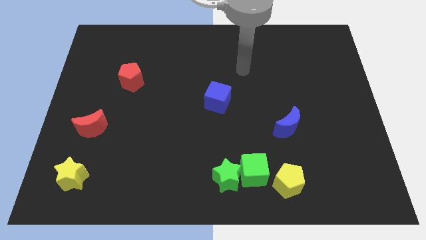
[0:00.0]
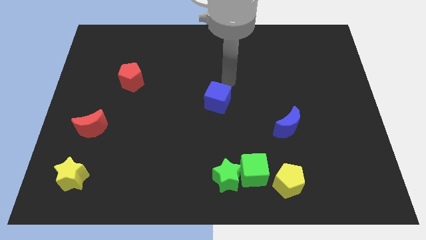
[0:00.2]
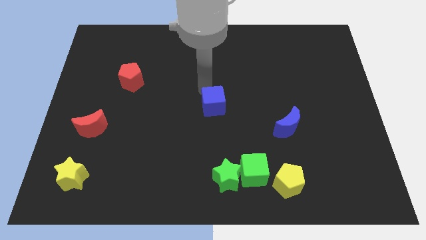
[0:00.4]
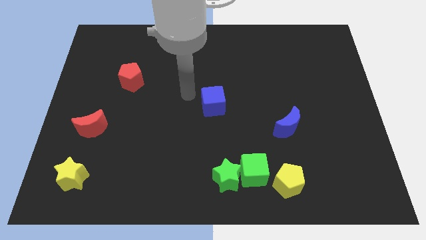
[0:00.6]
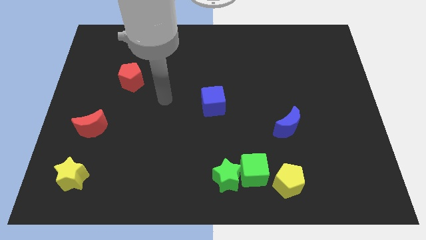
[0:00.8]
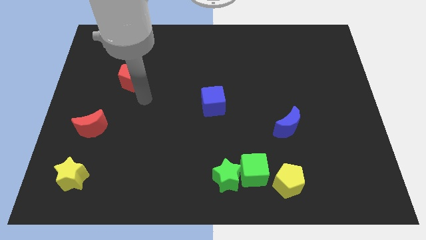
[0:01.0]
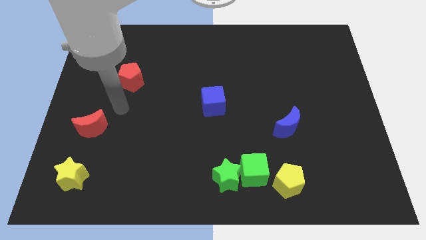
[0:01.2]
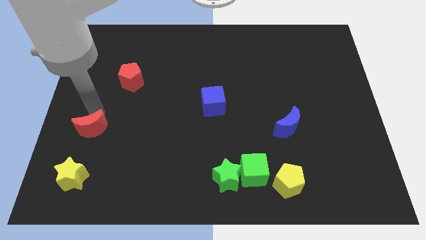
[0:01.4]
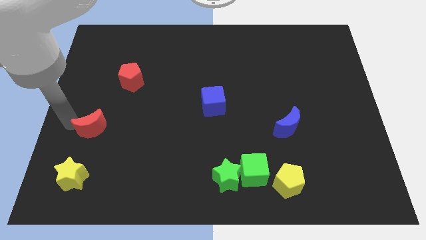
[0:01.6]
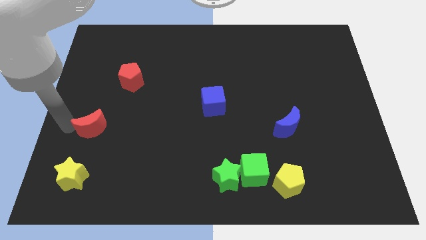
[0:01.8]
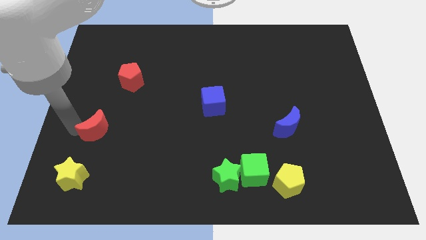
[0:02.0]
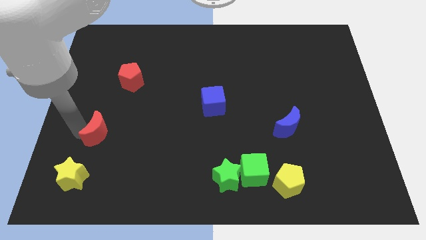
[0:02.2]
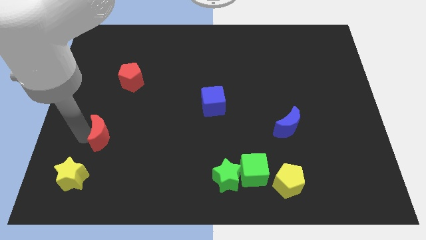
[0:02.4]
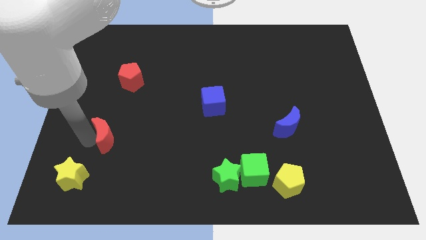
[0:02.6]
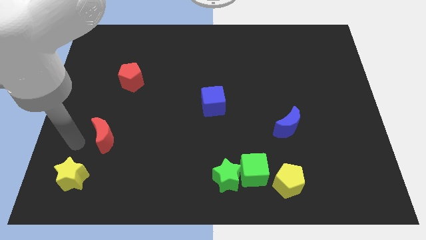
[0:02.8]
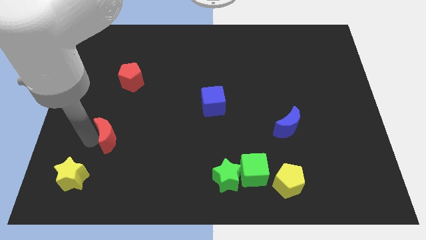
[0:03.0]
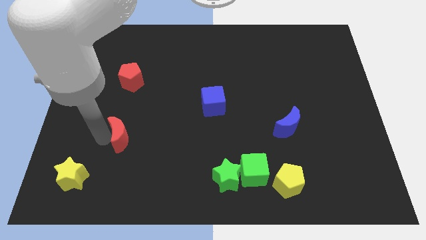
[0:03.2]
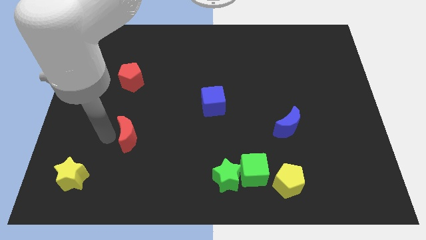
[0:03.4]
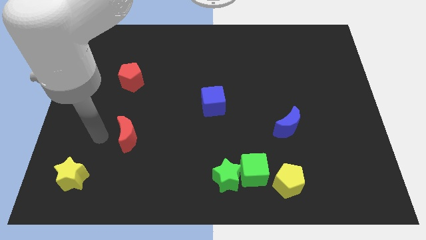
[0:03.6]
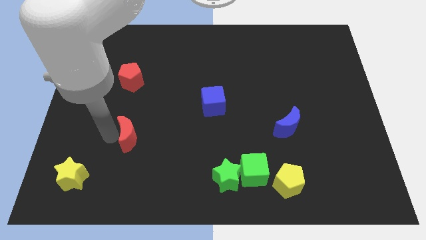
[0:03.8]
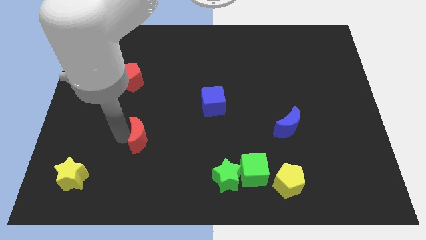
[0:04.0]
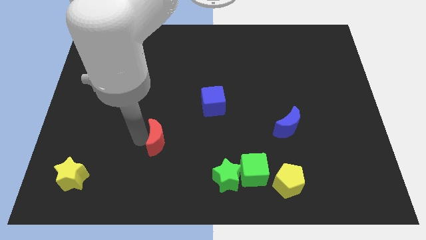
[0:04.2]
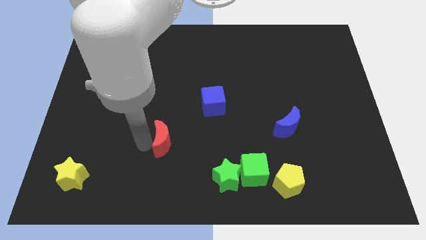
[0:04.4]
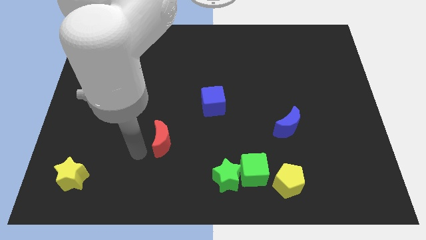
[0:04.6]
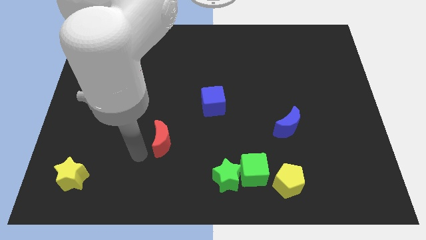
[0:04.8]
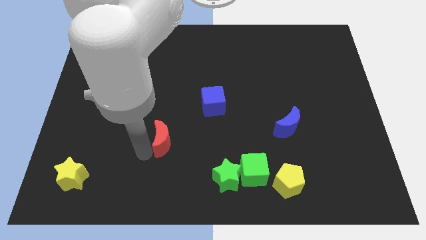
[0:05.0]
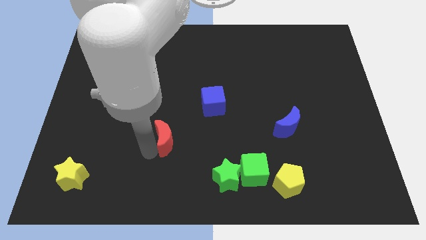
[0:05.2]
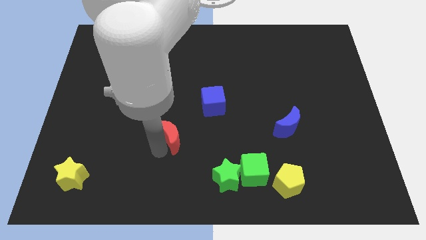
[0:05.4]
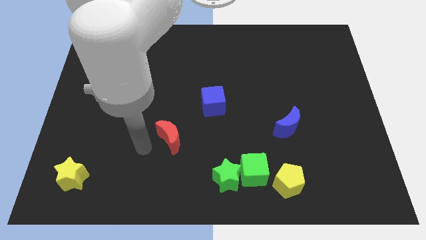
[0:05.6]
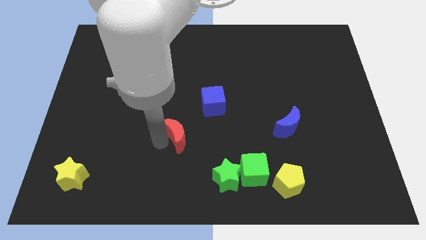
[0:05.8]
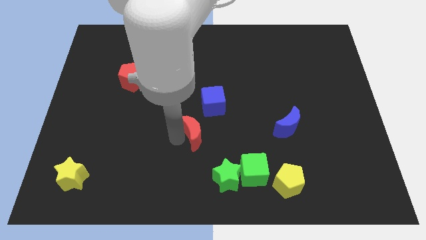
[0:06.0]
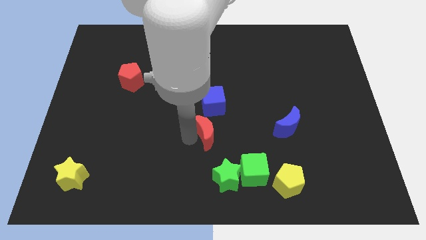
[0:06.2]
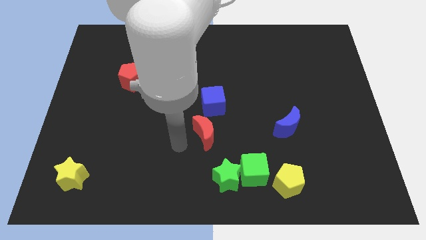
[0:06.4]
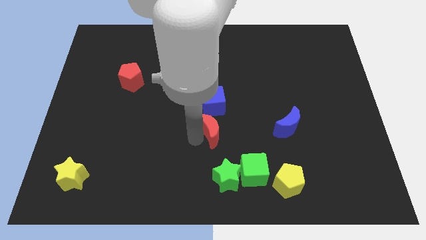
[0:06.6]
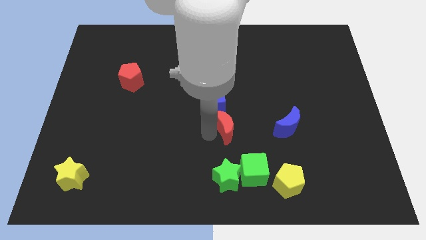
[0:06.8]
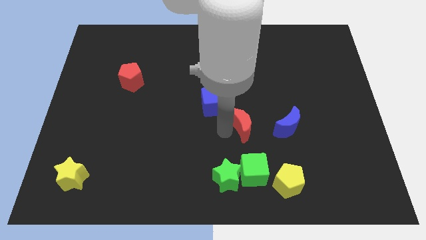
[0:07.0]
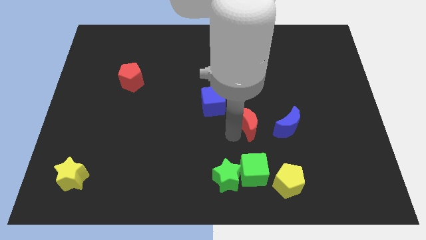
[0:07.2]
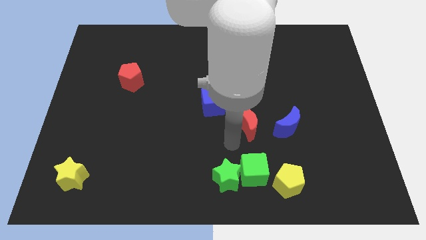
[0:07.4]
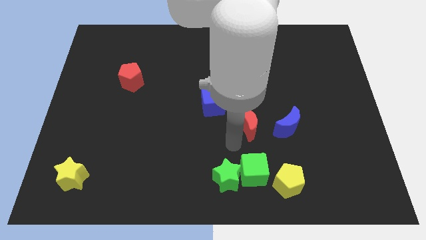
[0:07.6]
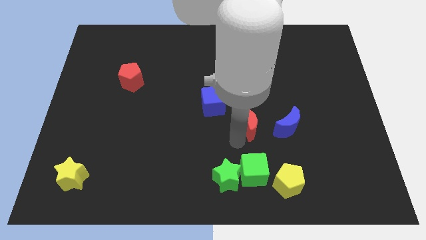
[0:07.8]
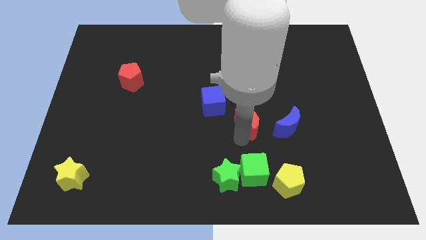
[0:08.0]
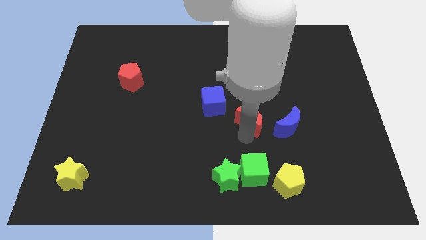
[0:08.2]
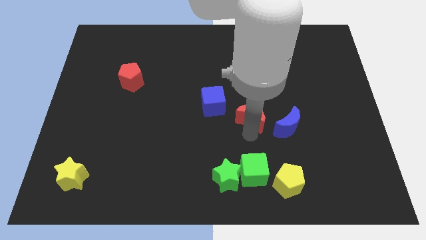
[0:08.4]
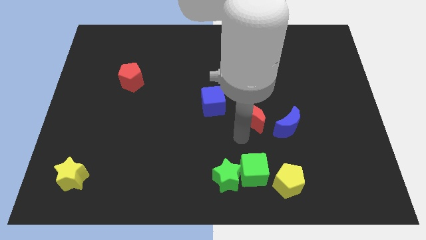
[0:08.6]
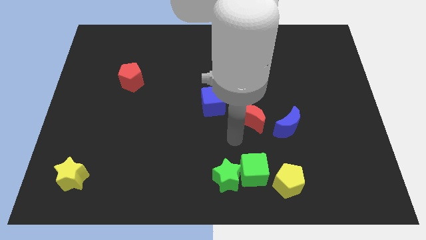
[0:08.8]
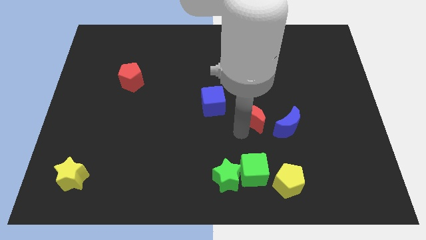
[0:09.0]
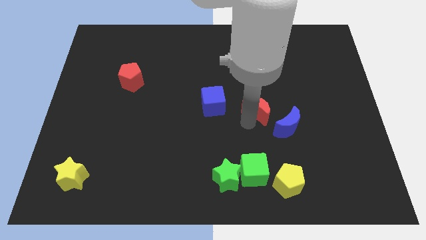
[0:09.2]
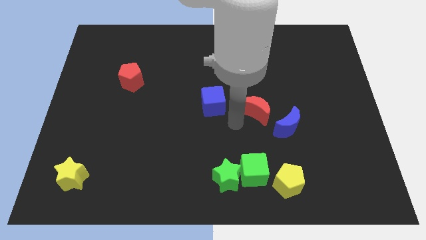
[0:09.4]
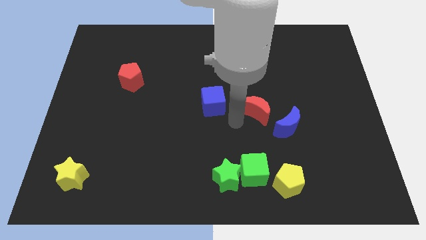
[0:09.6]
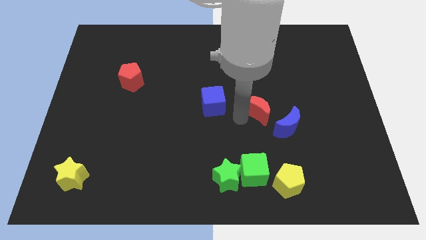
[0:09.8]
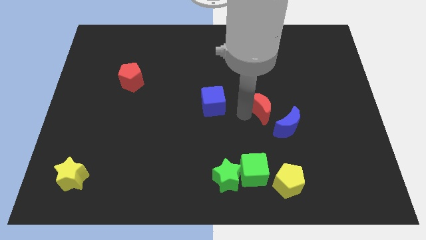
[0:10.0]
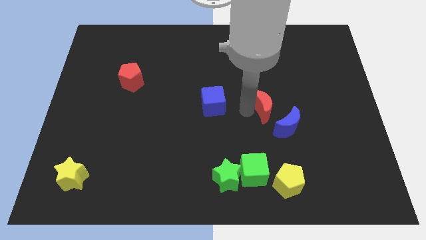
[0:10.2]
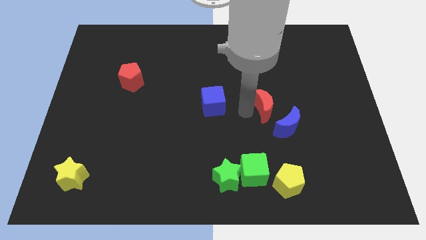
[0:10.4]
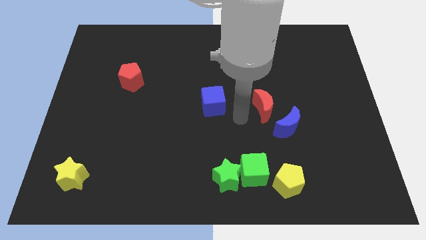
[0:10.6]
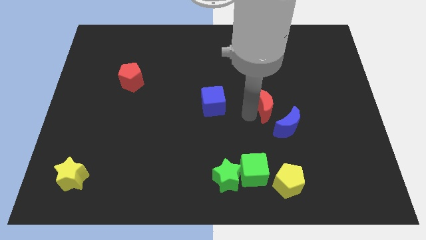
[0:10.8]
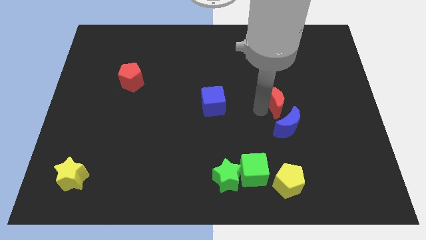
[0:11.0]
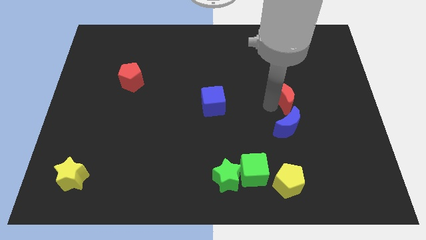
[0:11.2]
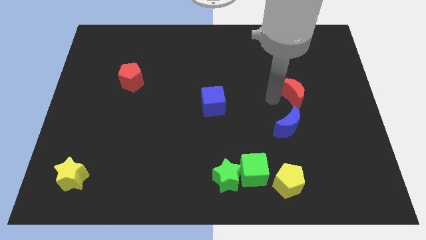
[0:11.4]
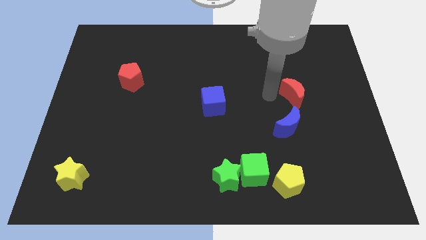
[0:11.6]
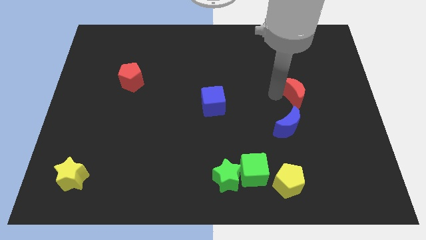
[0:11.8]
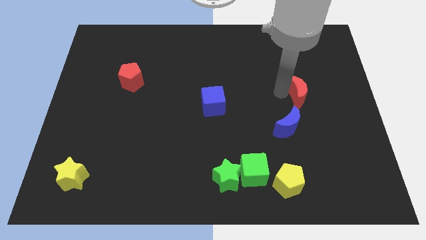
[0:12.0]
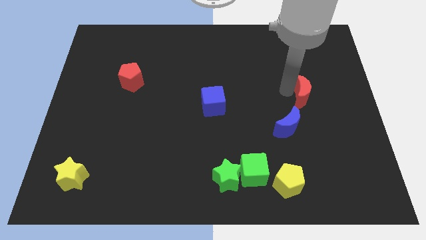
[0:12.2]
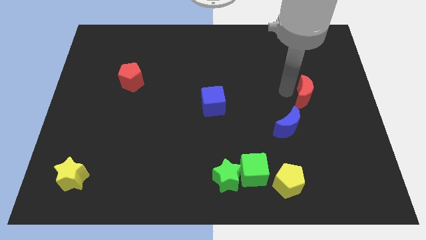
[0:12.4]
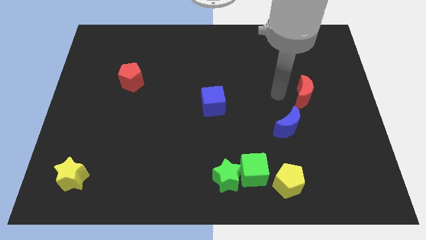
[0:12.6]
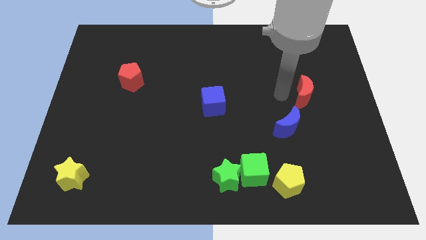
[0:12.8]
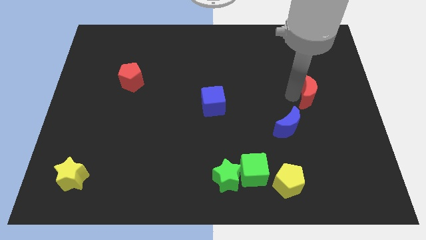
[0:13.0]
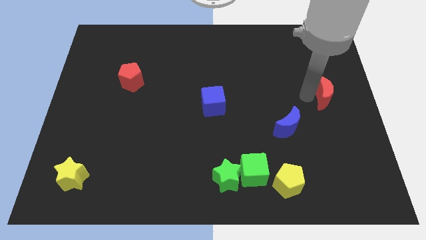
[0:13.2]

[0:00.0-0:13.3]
put the red moon to the right side of the board
